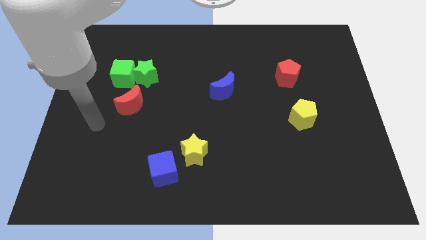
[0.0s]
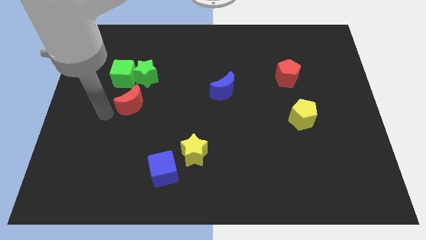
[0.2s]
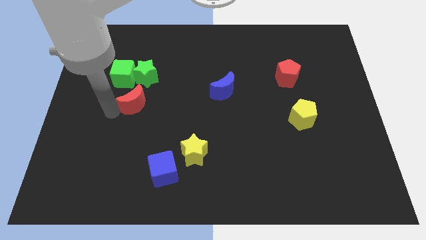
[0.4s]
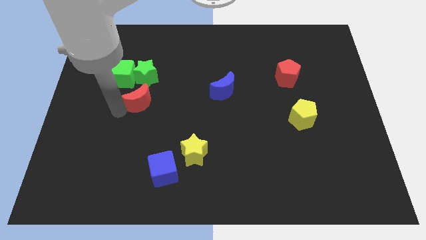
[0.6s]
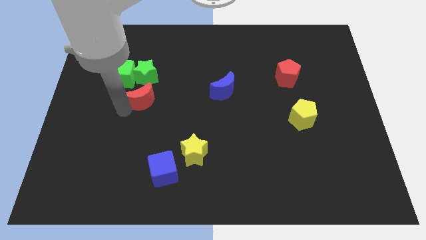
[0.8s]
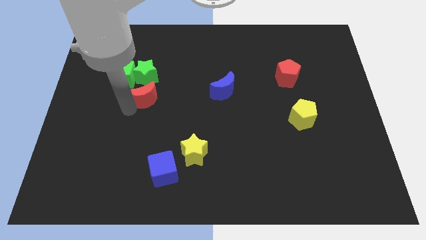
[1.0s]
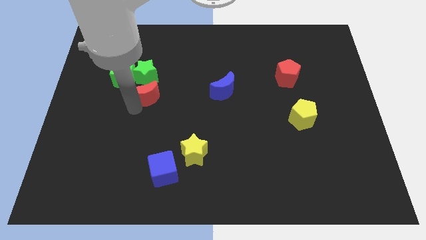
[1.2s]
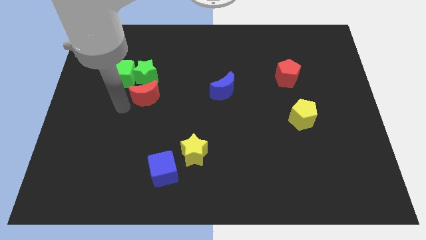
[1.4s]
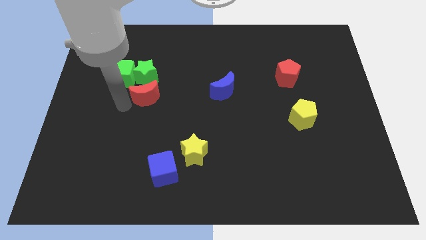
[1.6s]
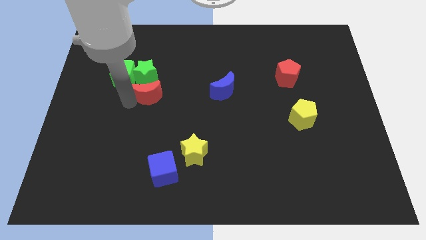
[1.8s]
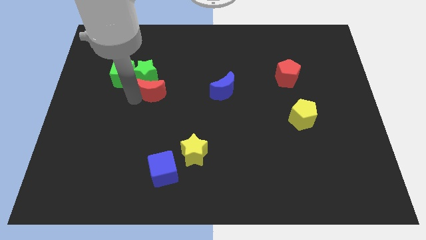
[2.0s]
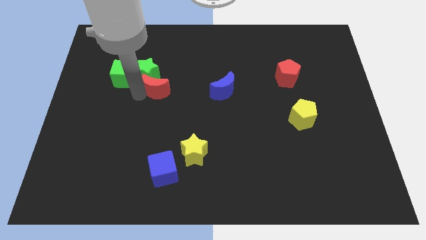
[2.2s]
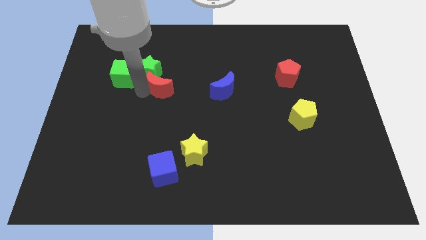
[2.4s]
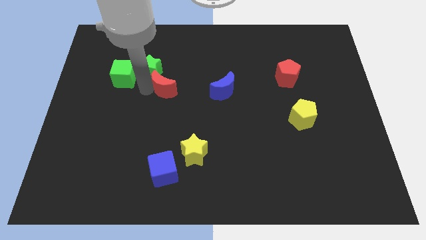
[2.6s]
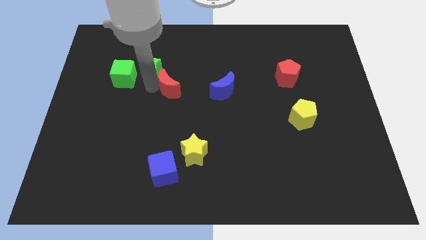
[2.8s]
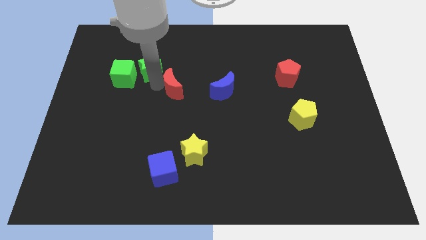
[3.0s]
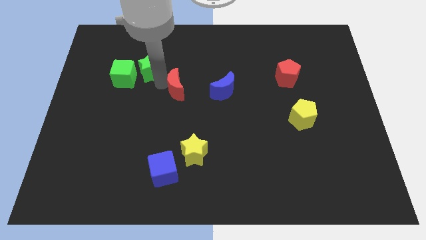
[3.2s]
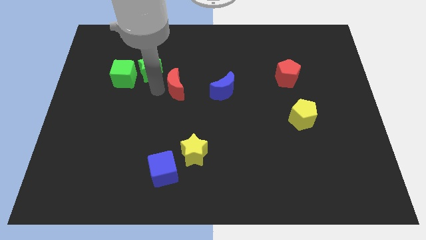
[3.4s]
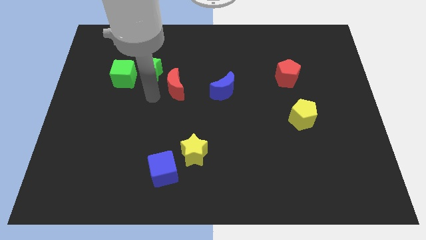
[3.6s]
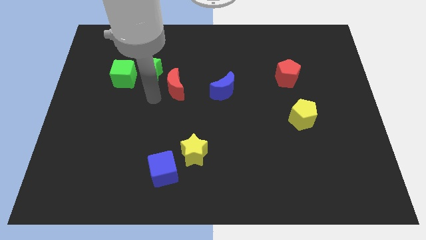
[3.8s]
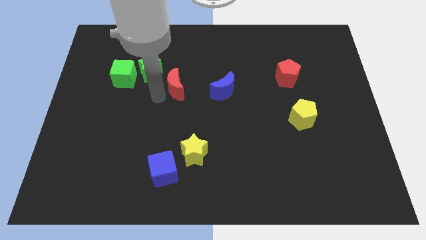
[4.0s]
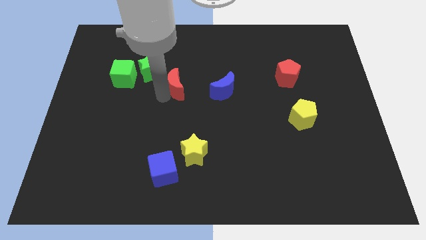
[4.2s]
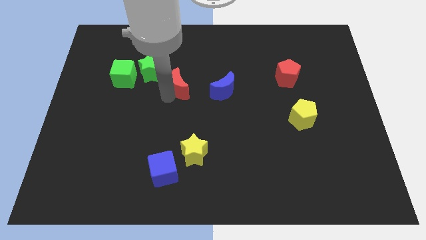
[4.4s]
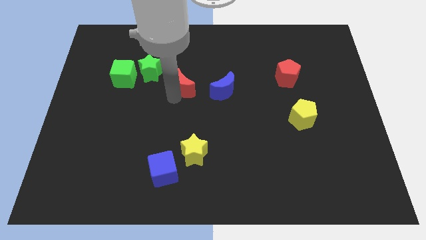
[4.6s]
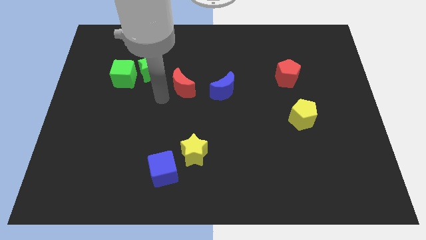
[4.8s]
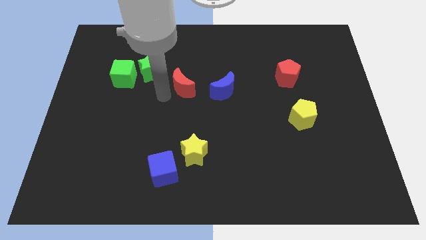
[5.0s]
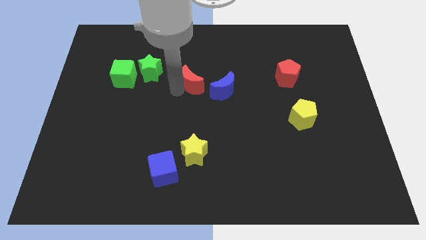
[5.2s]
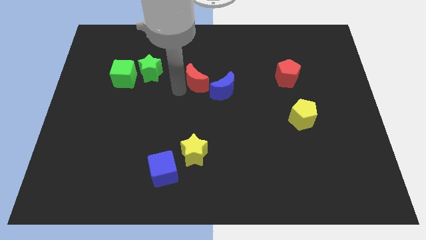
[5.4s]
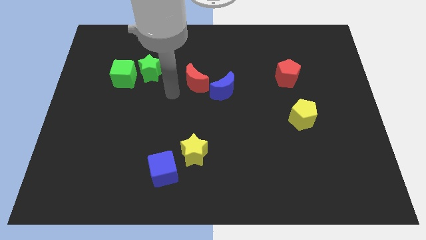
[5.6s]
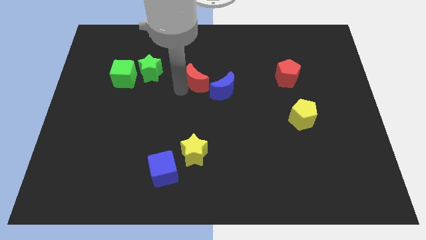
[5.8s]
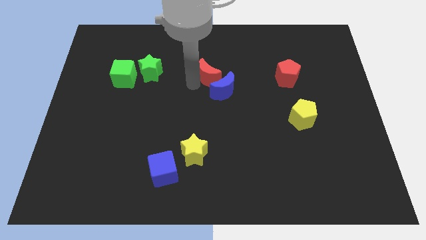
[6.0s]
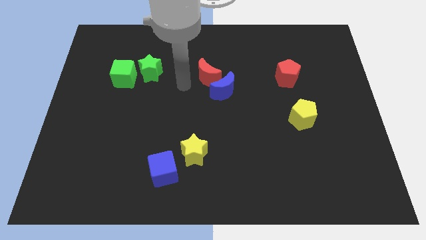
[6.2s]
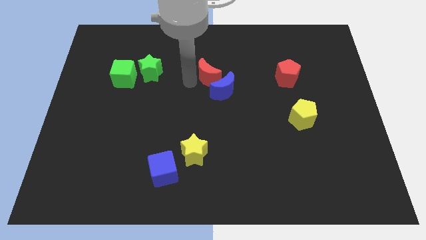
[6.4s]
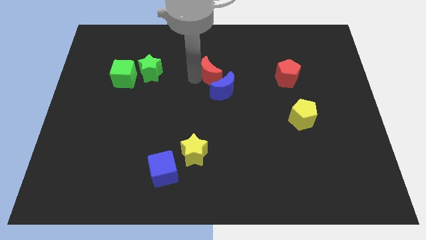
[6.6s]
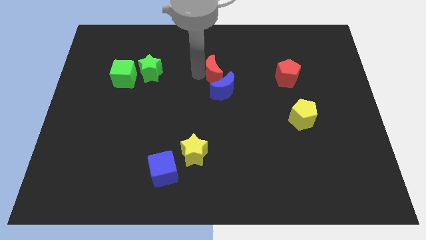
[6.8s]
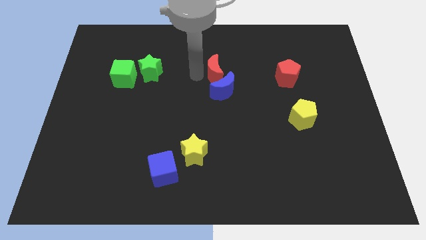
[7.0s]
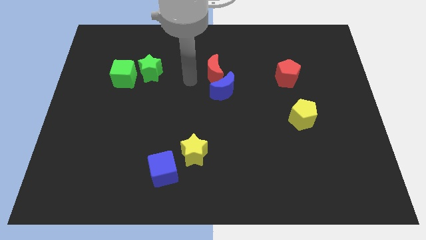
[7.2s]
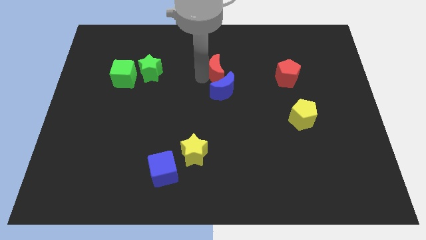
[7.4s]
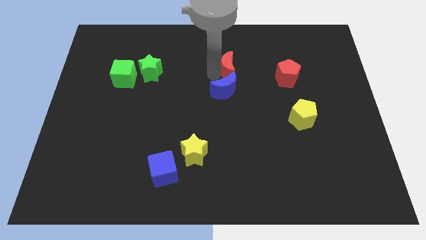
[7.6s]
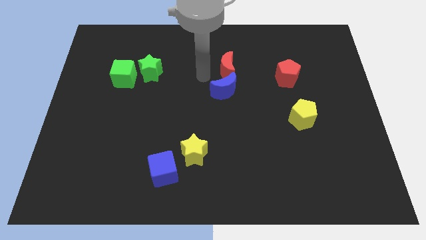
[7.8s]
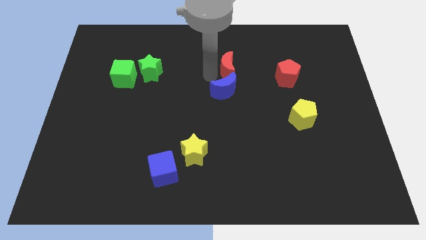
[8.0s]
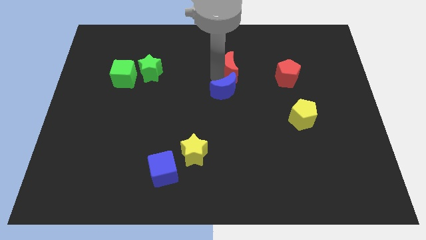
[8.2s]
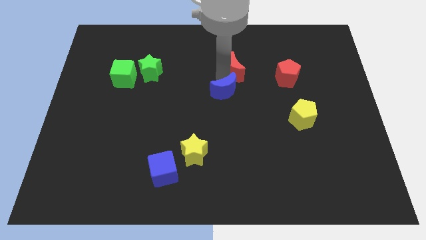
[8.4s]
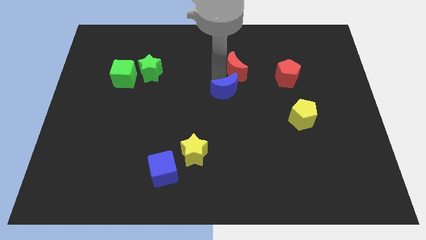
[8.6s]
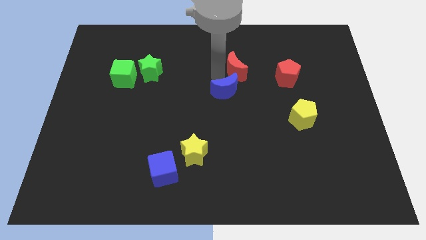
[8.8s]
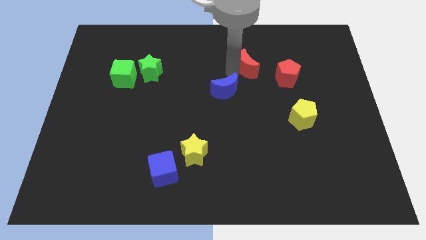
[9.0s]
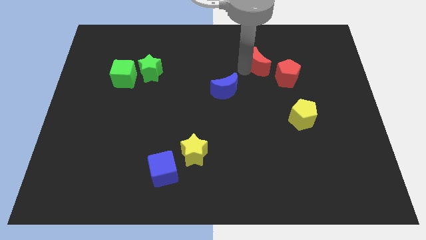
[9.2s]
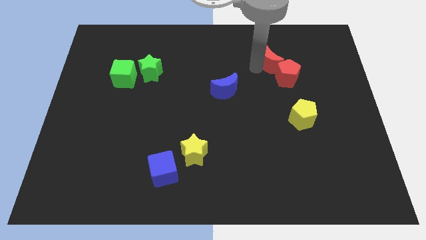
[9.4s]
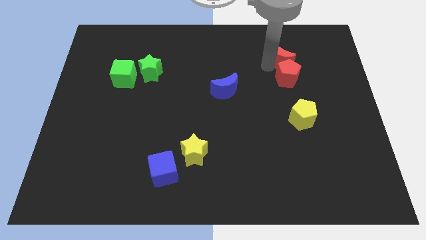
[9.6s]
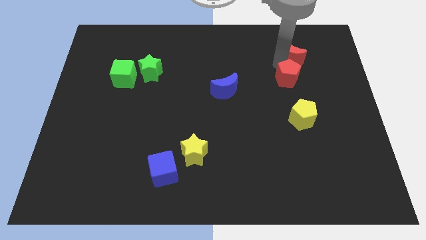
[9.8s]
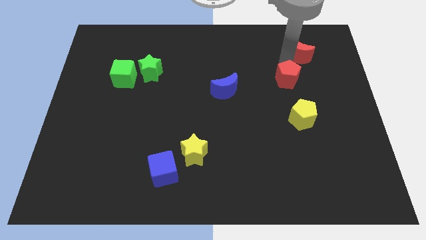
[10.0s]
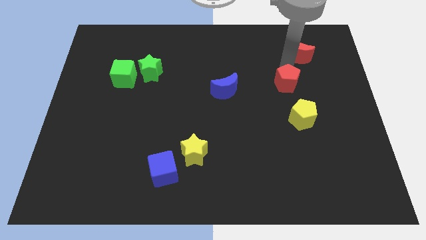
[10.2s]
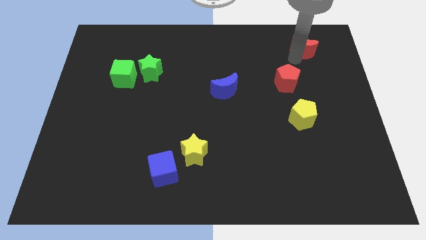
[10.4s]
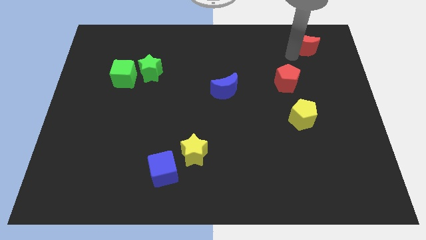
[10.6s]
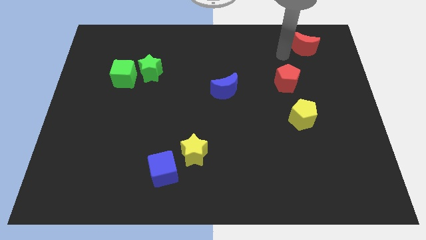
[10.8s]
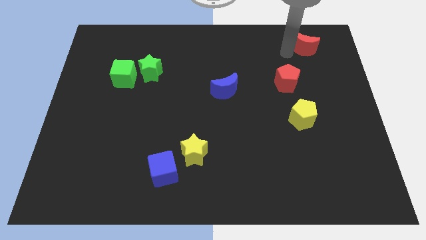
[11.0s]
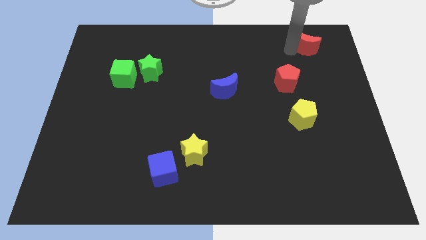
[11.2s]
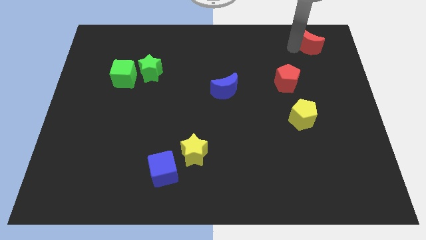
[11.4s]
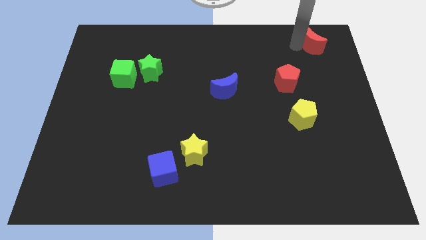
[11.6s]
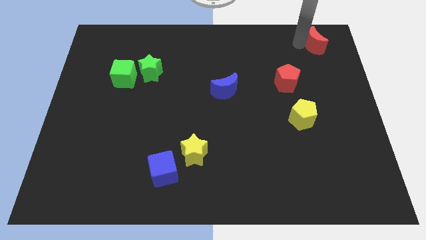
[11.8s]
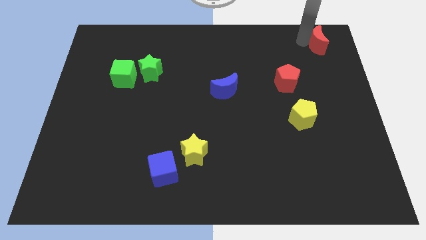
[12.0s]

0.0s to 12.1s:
move the red moon to the upper right corner

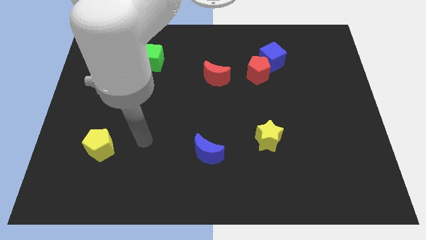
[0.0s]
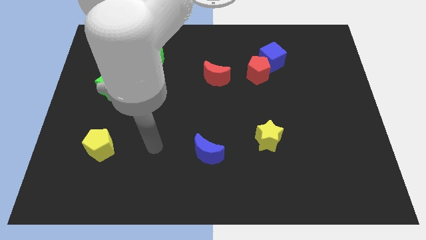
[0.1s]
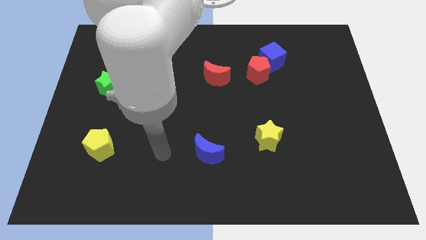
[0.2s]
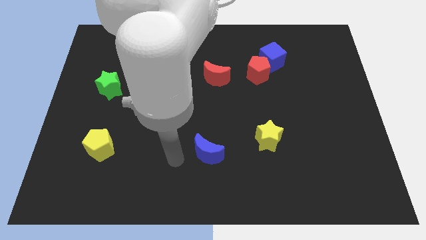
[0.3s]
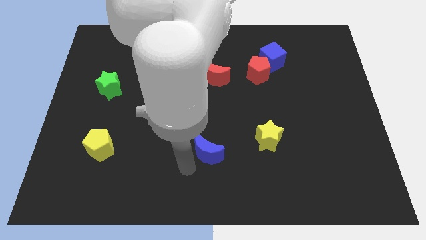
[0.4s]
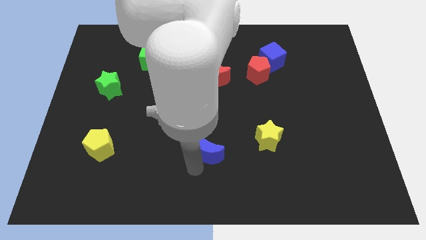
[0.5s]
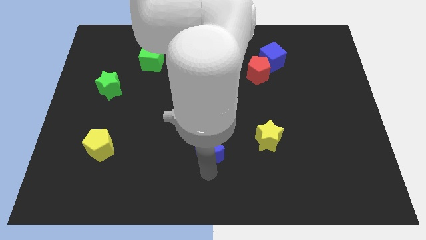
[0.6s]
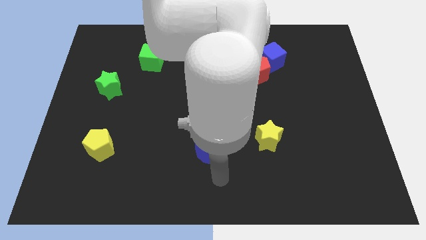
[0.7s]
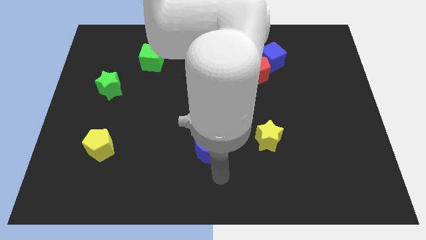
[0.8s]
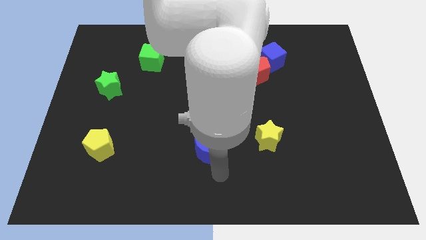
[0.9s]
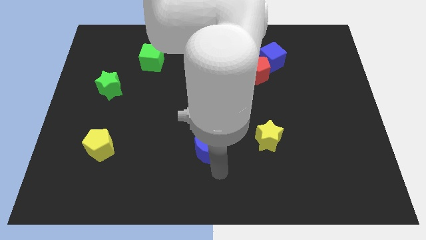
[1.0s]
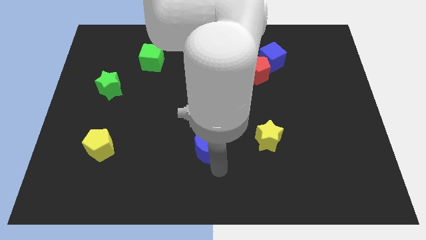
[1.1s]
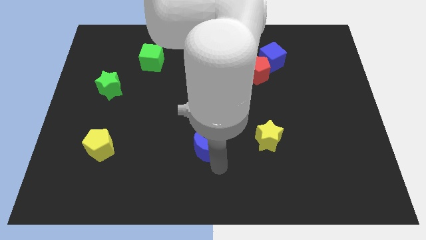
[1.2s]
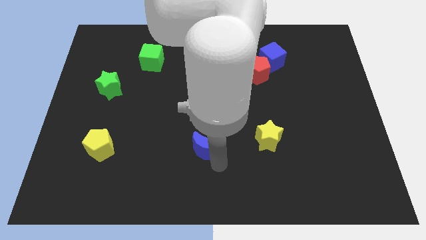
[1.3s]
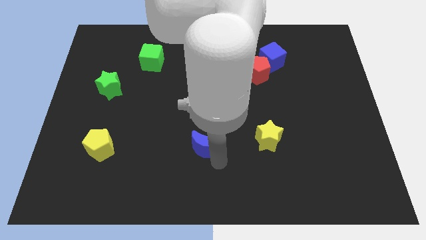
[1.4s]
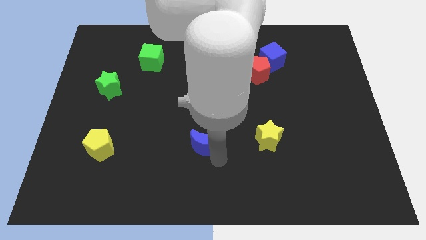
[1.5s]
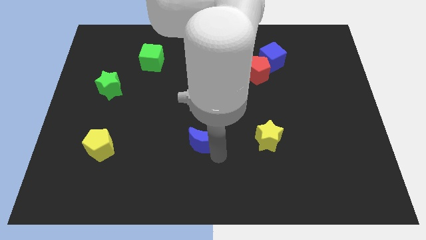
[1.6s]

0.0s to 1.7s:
put the blue moon to the center
